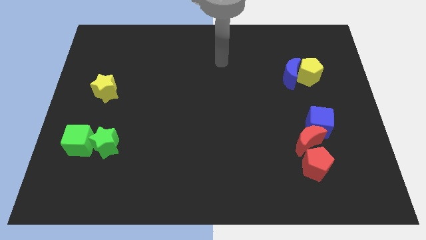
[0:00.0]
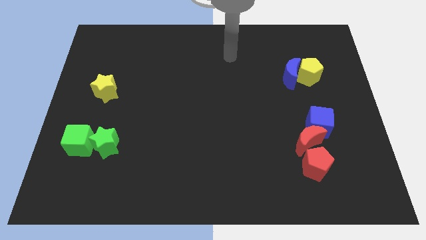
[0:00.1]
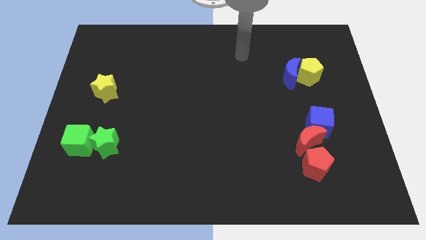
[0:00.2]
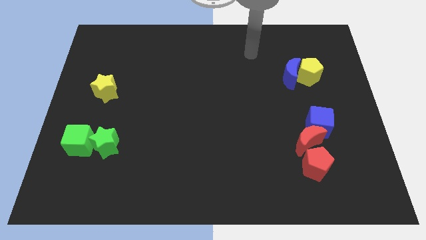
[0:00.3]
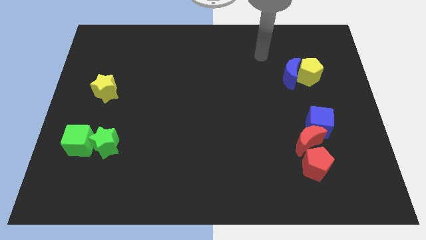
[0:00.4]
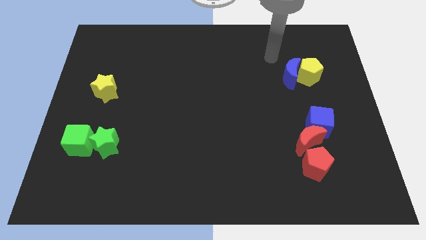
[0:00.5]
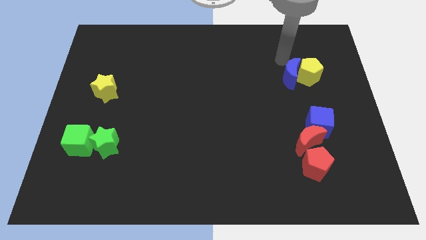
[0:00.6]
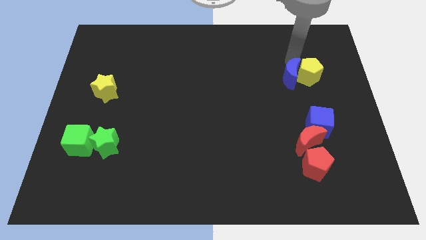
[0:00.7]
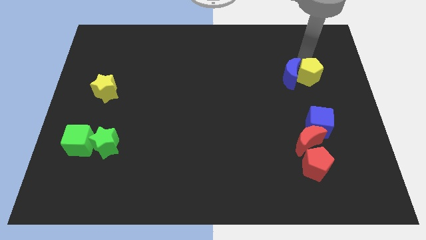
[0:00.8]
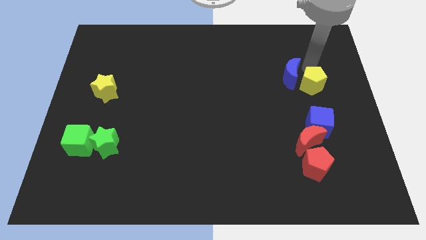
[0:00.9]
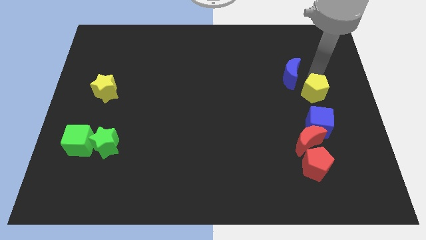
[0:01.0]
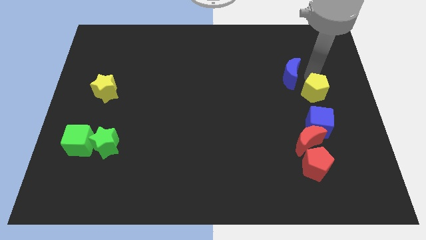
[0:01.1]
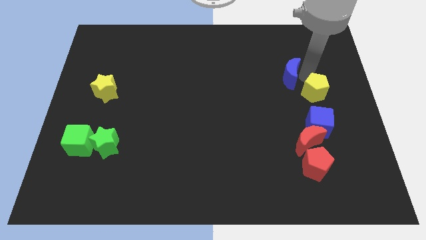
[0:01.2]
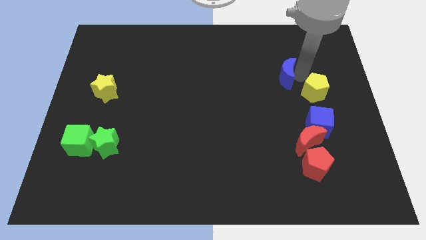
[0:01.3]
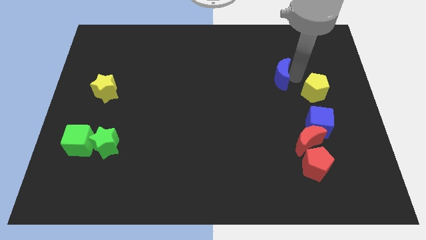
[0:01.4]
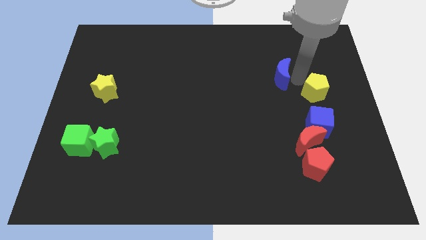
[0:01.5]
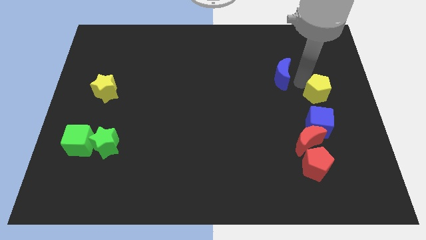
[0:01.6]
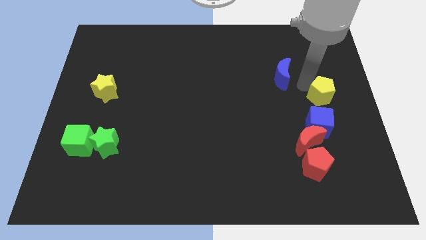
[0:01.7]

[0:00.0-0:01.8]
separate the blue moon from the yellow pentagon

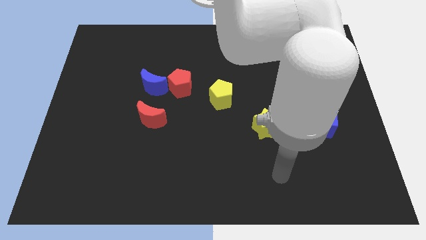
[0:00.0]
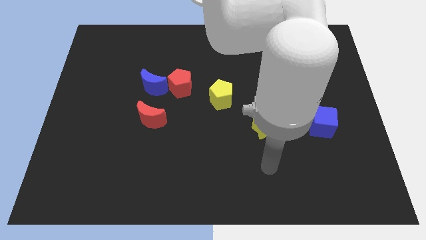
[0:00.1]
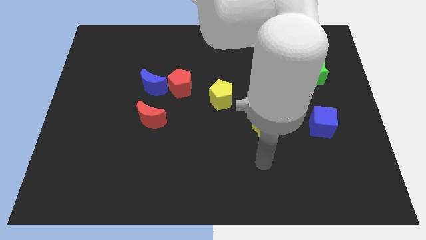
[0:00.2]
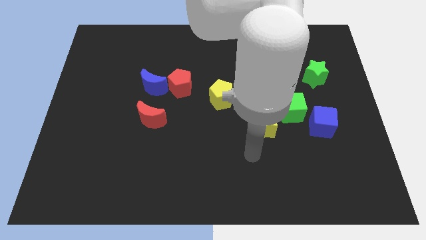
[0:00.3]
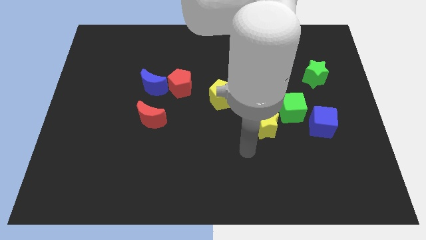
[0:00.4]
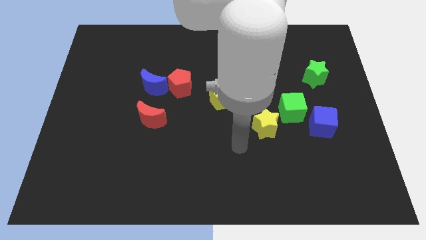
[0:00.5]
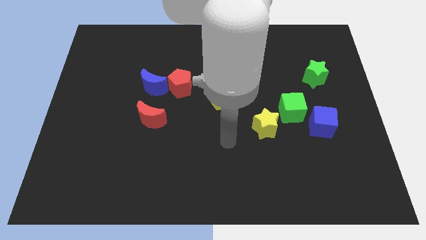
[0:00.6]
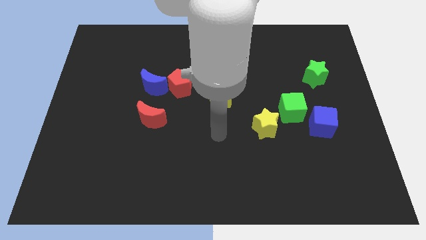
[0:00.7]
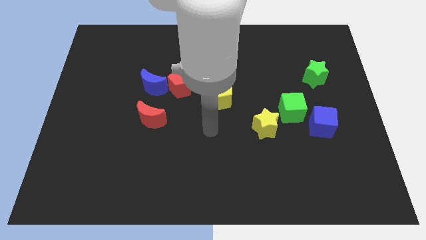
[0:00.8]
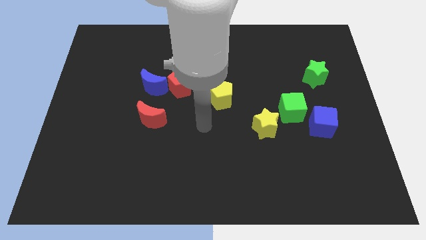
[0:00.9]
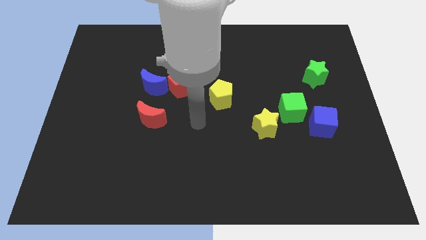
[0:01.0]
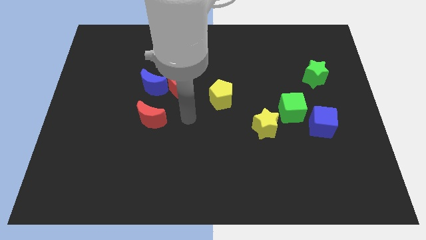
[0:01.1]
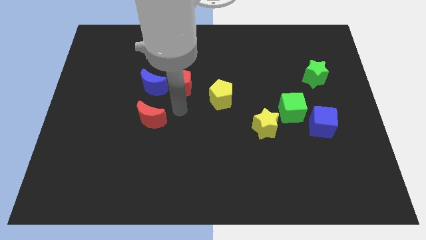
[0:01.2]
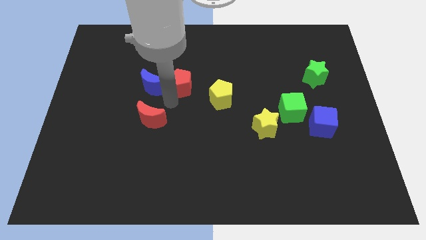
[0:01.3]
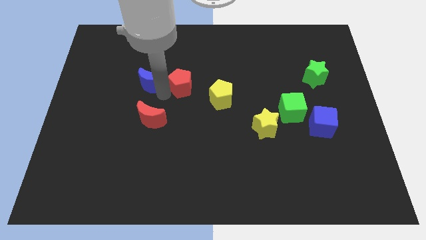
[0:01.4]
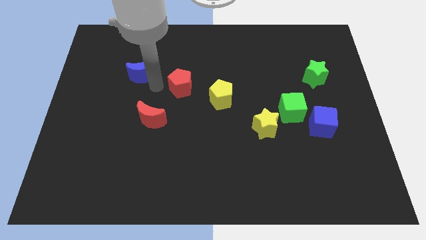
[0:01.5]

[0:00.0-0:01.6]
pull the red pentagon apart from the blue moon

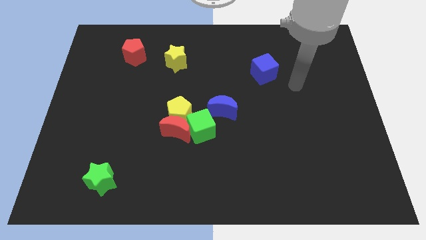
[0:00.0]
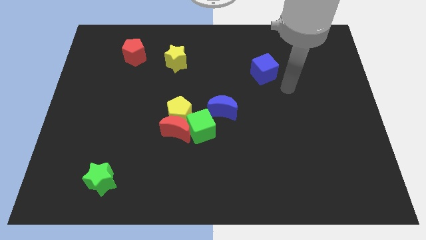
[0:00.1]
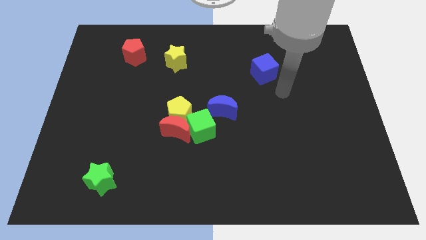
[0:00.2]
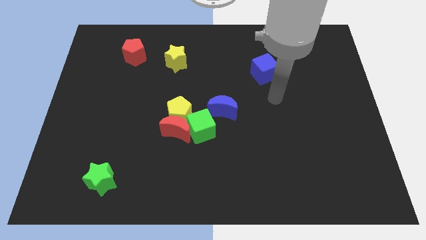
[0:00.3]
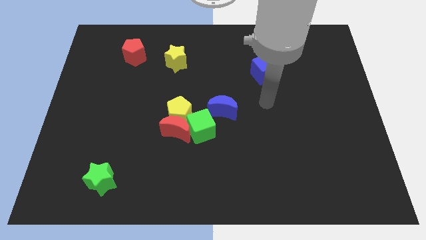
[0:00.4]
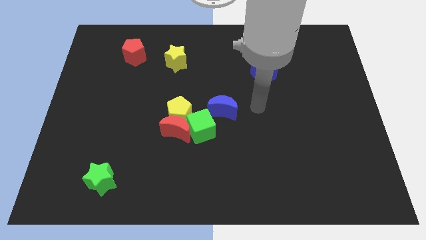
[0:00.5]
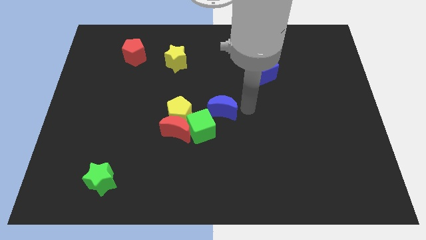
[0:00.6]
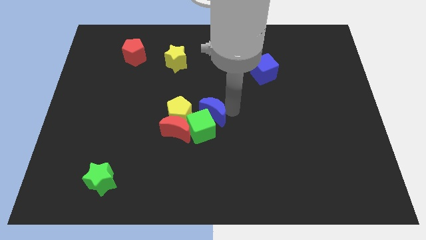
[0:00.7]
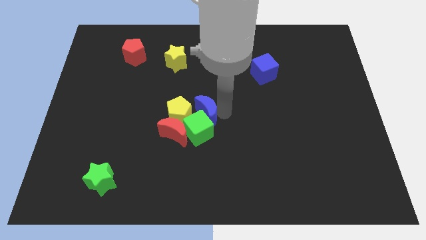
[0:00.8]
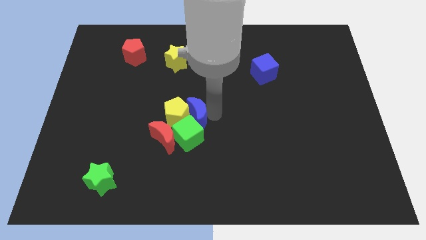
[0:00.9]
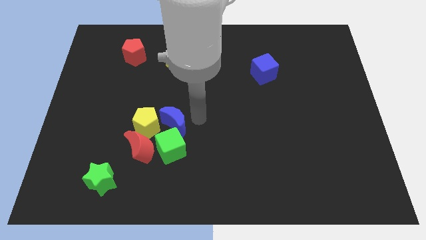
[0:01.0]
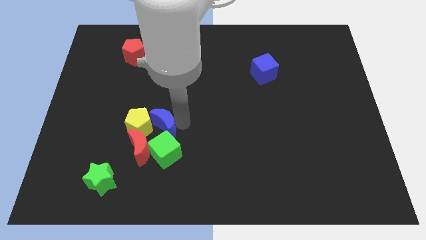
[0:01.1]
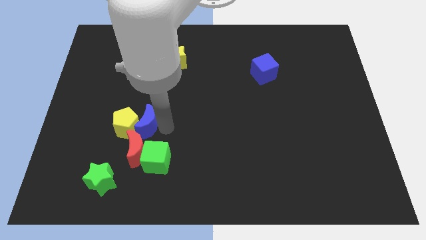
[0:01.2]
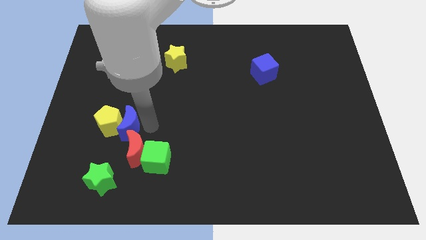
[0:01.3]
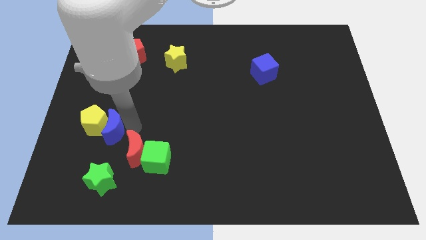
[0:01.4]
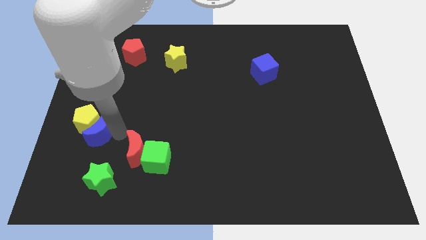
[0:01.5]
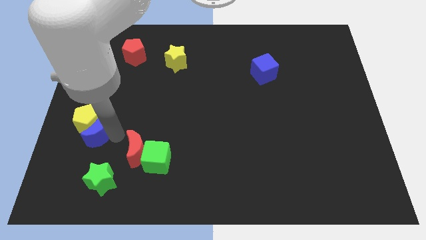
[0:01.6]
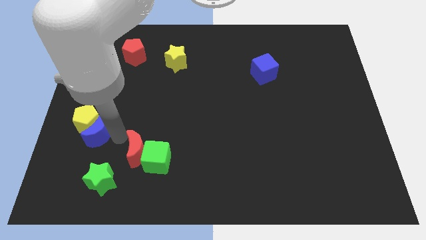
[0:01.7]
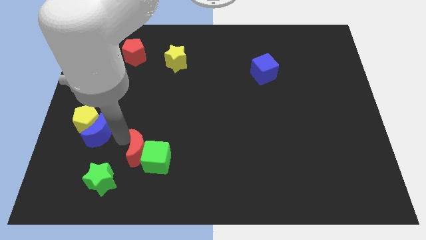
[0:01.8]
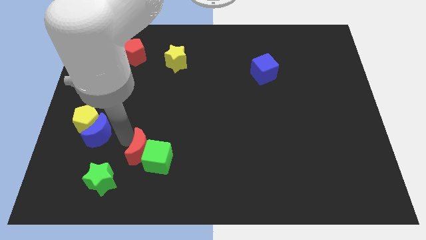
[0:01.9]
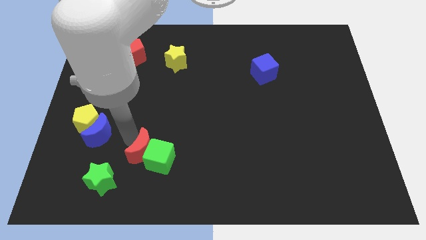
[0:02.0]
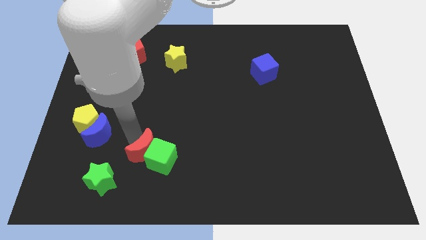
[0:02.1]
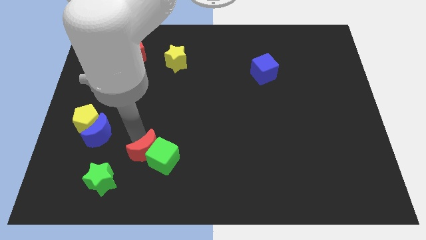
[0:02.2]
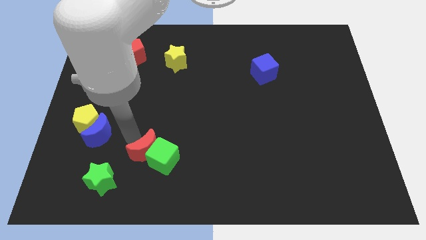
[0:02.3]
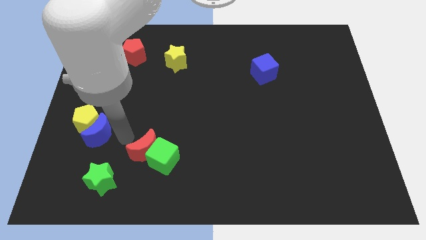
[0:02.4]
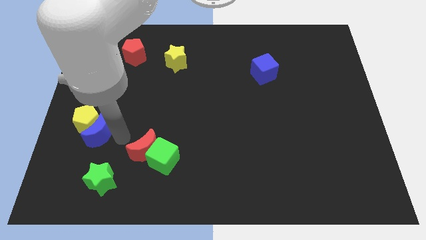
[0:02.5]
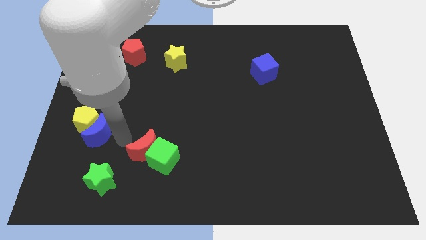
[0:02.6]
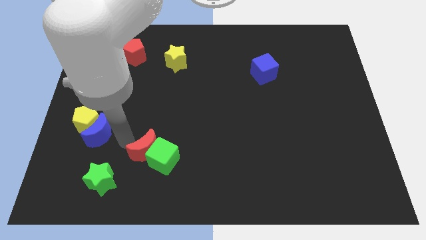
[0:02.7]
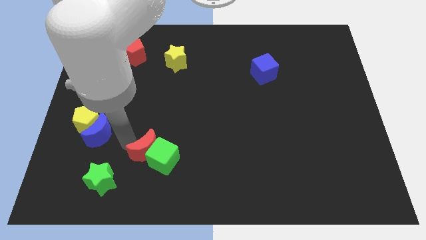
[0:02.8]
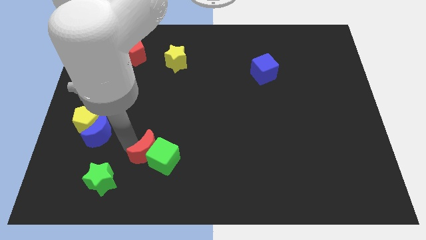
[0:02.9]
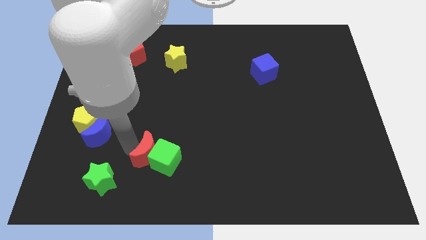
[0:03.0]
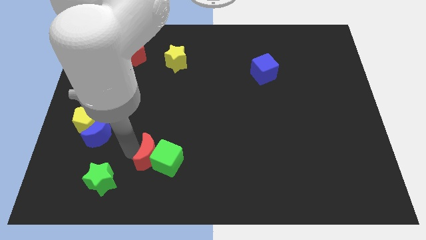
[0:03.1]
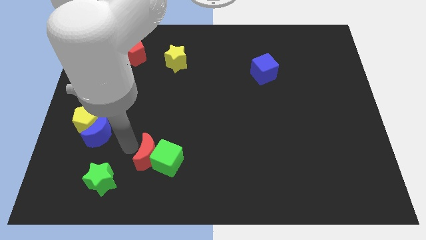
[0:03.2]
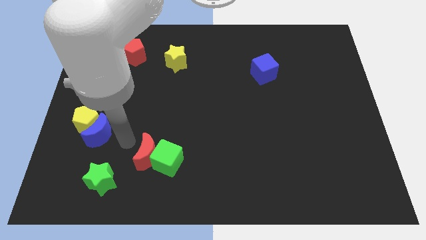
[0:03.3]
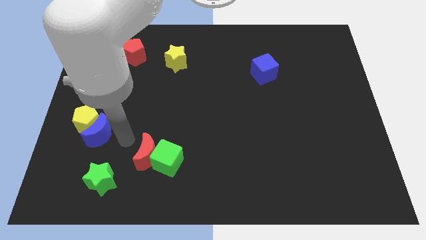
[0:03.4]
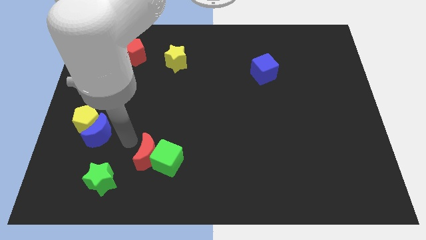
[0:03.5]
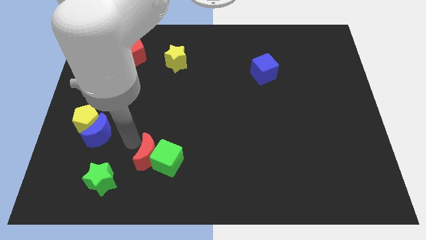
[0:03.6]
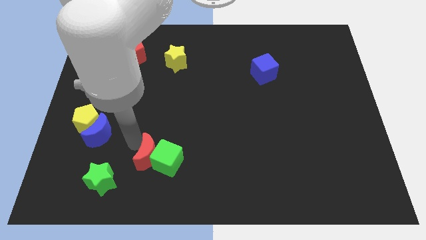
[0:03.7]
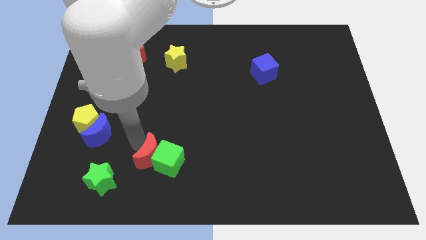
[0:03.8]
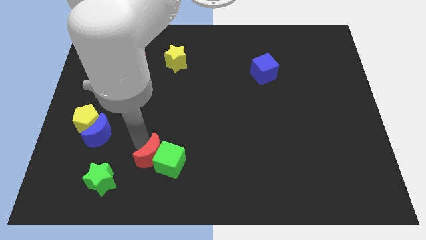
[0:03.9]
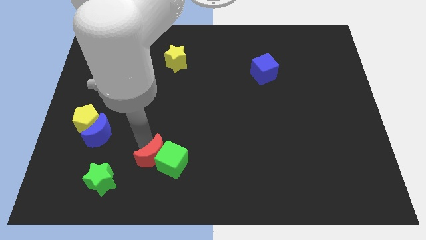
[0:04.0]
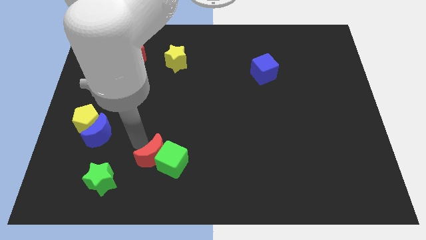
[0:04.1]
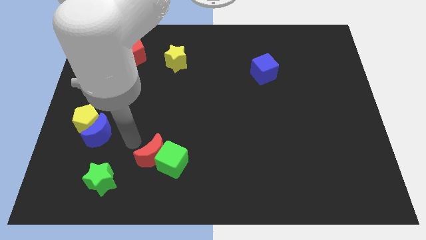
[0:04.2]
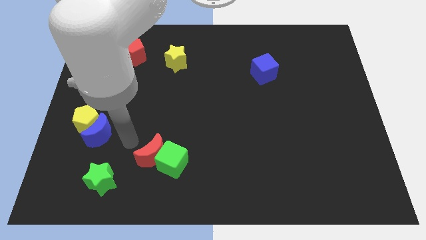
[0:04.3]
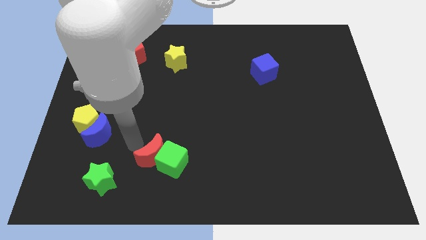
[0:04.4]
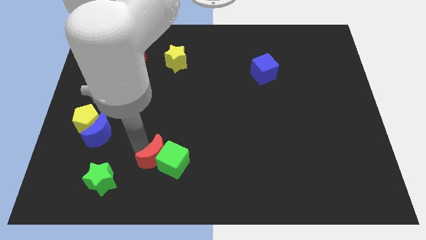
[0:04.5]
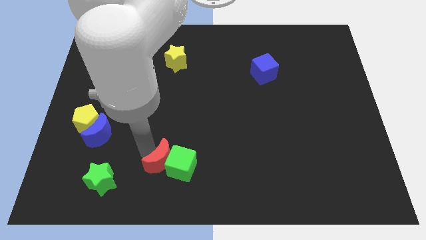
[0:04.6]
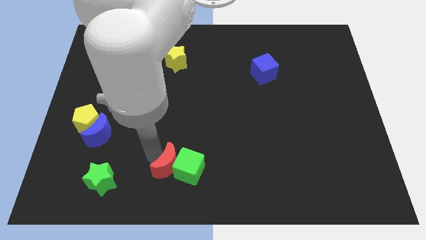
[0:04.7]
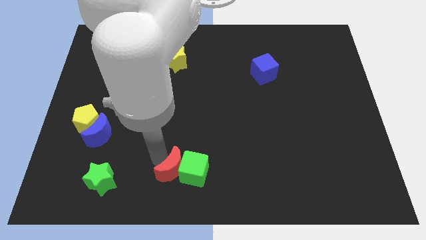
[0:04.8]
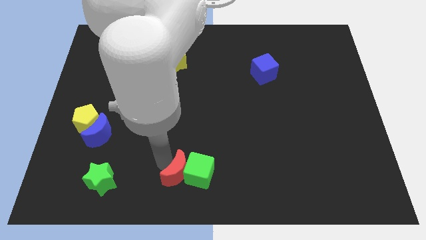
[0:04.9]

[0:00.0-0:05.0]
move the red moon away from the yellow pentagon and green cube

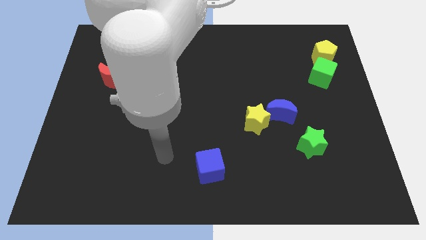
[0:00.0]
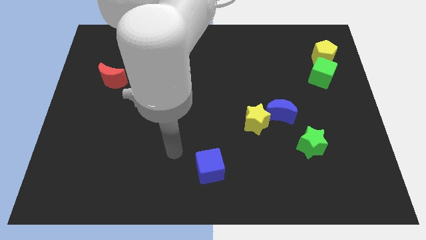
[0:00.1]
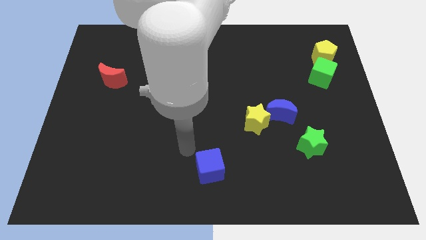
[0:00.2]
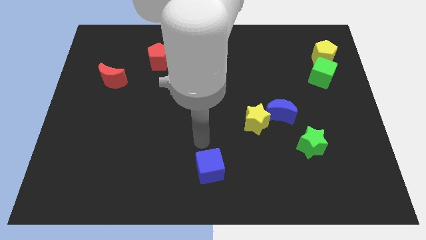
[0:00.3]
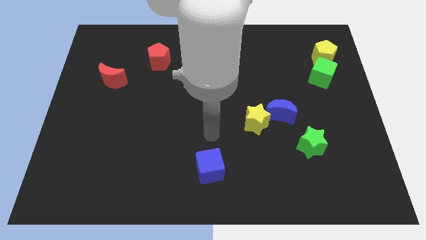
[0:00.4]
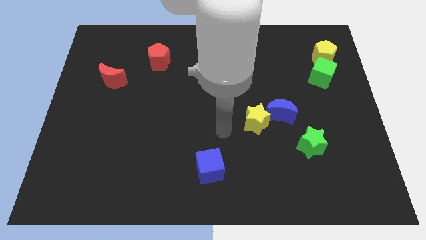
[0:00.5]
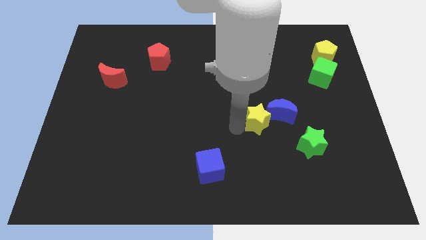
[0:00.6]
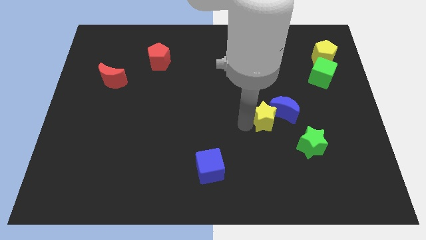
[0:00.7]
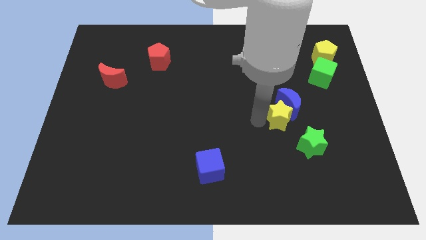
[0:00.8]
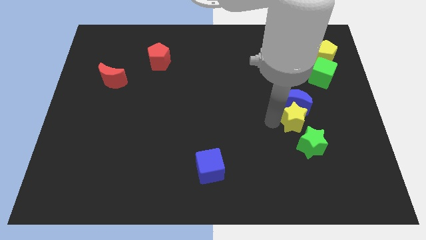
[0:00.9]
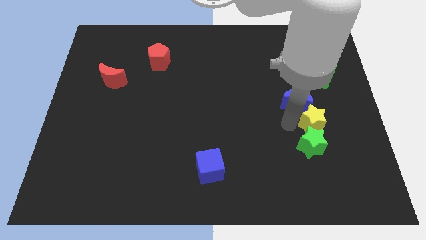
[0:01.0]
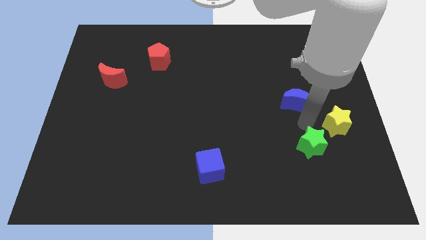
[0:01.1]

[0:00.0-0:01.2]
pull the blue moon apart from the yellow star

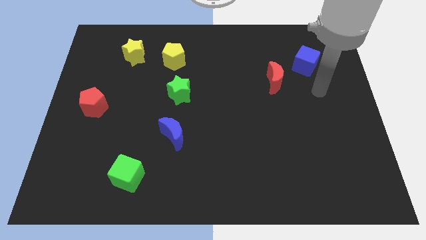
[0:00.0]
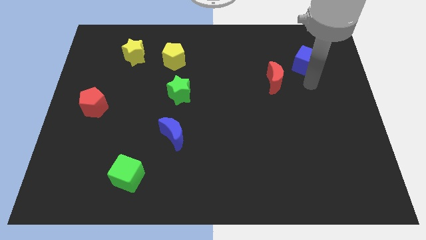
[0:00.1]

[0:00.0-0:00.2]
pull the red moon apart from the blue cube
